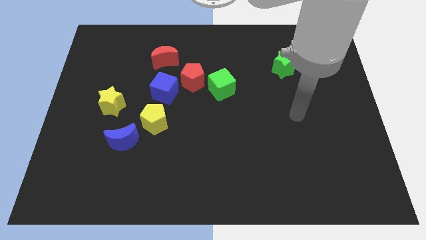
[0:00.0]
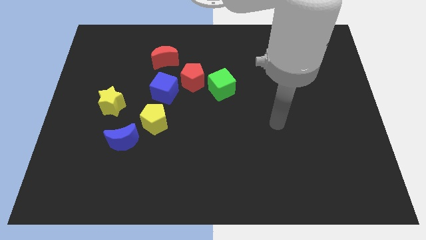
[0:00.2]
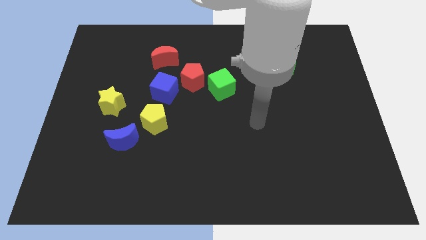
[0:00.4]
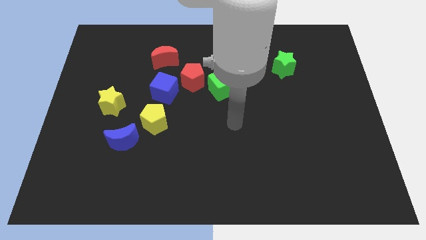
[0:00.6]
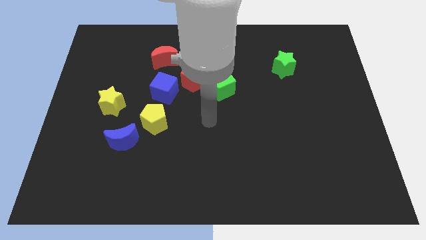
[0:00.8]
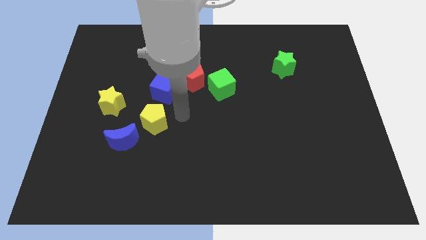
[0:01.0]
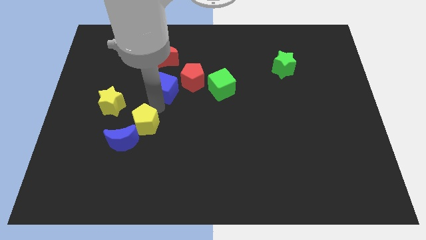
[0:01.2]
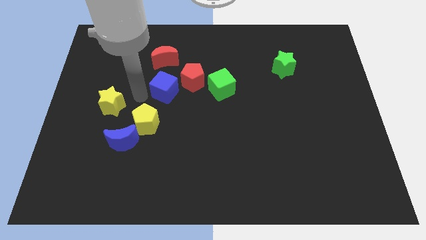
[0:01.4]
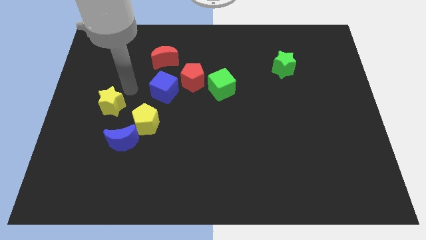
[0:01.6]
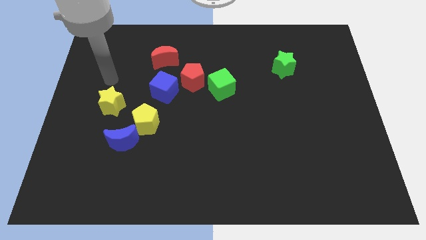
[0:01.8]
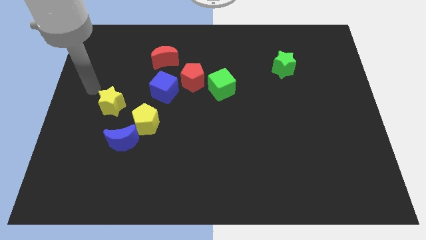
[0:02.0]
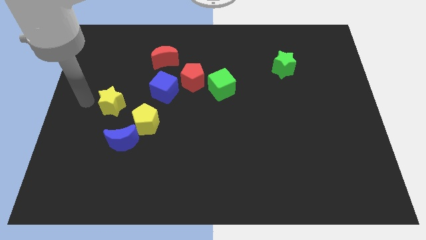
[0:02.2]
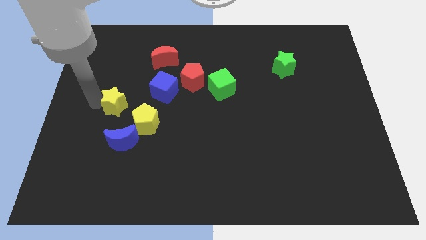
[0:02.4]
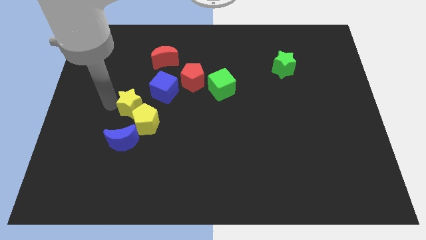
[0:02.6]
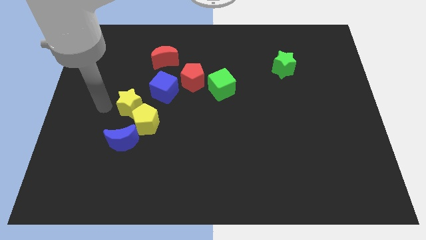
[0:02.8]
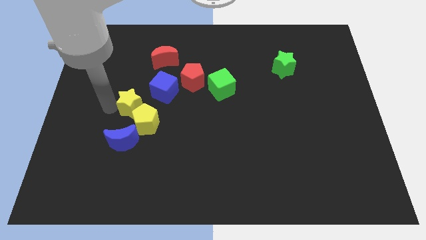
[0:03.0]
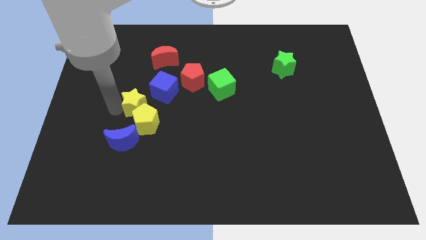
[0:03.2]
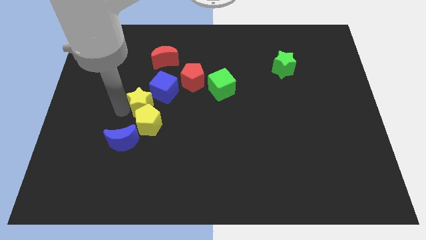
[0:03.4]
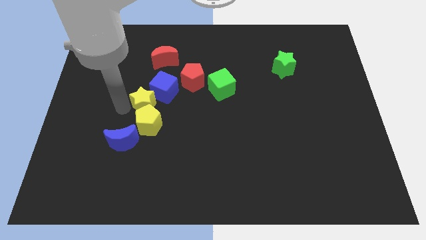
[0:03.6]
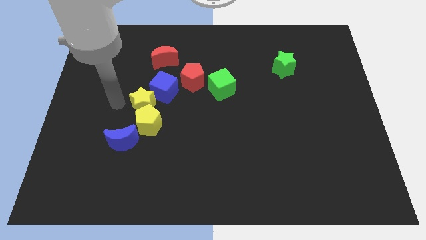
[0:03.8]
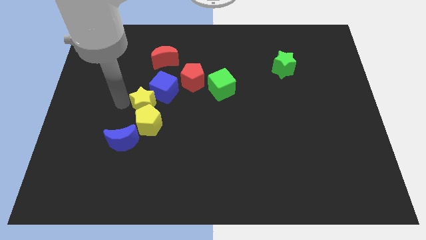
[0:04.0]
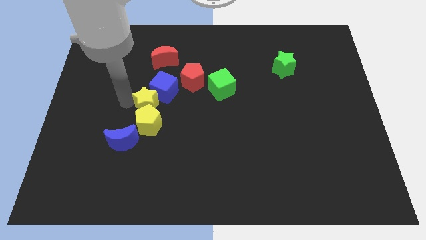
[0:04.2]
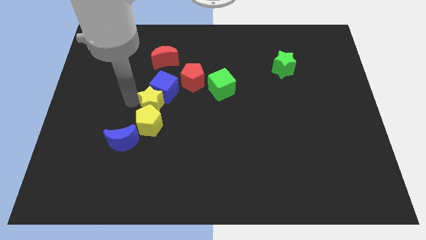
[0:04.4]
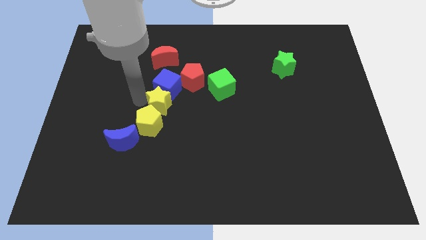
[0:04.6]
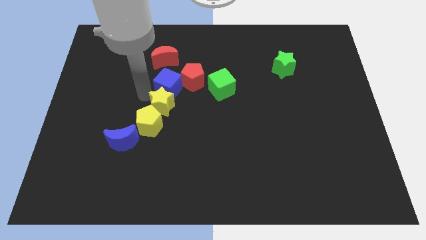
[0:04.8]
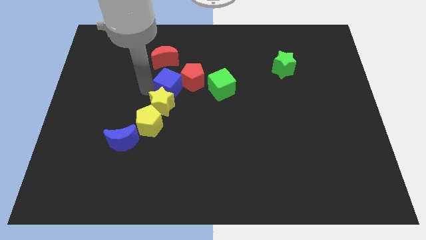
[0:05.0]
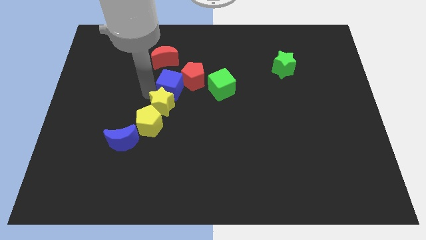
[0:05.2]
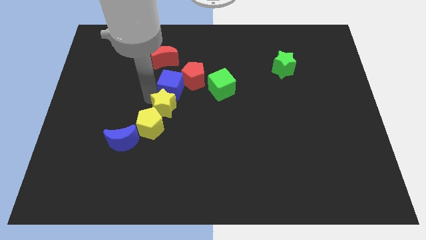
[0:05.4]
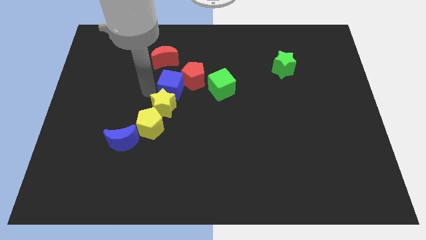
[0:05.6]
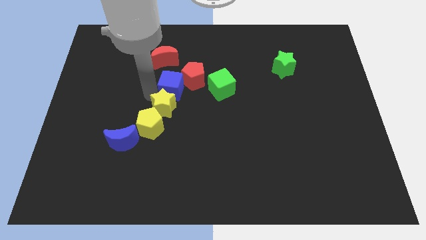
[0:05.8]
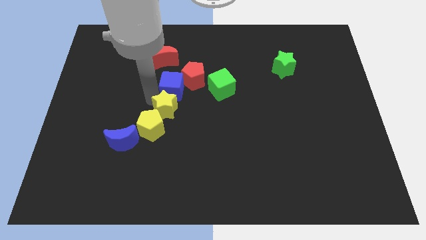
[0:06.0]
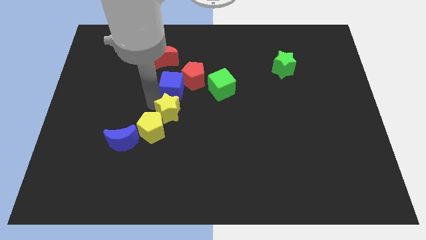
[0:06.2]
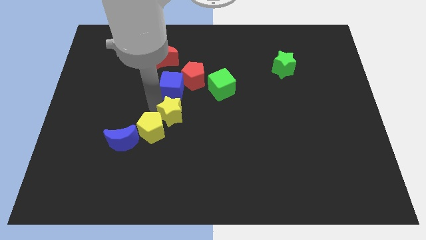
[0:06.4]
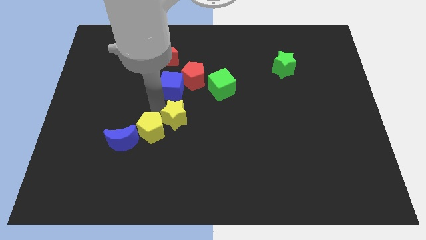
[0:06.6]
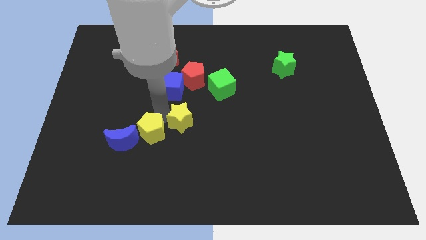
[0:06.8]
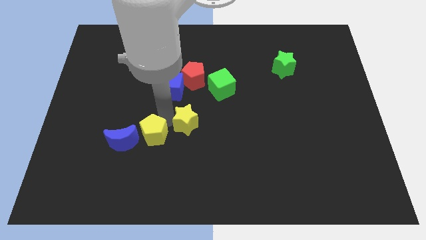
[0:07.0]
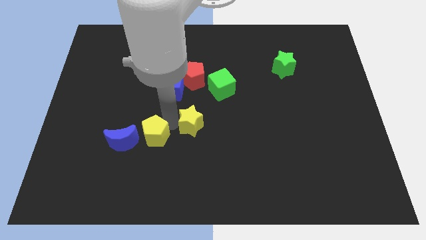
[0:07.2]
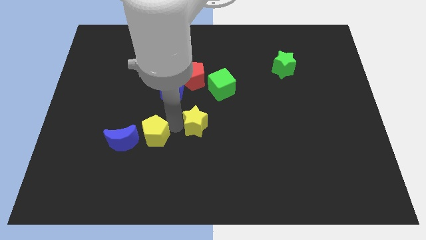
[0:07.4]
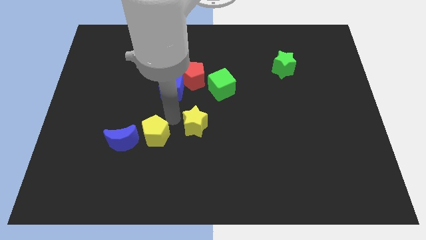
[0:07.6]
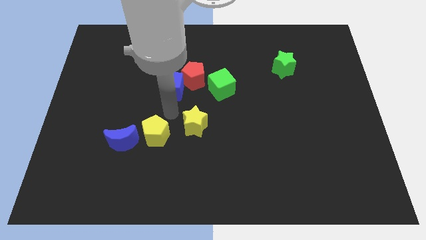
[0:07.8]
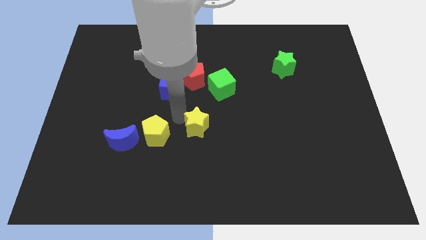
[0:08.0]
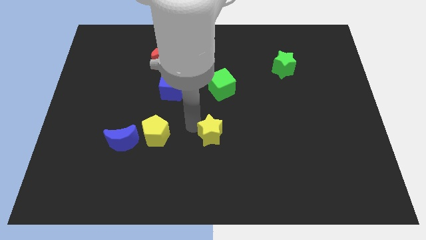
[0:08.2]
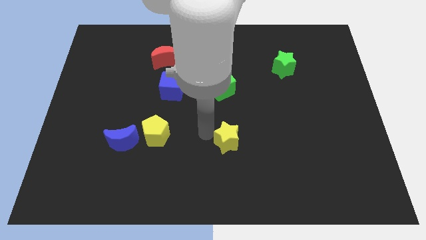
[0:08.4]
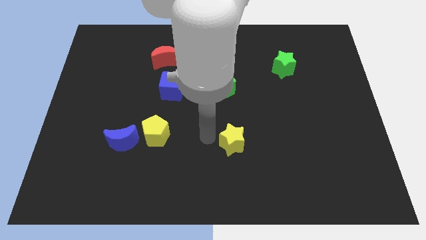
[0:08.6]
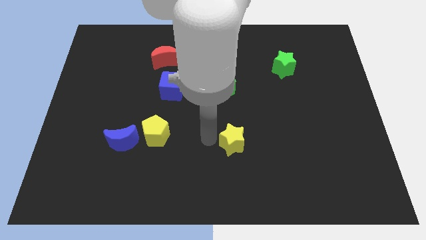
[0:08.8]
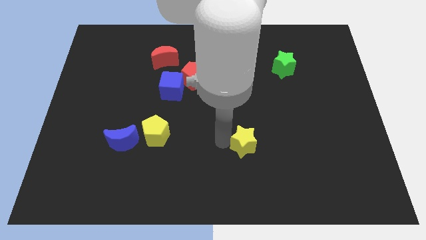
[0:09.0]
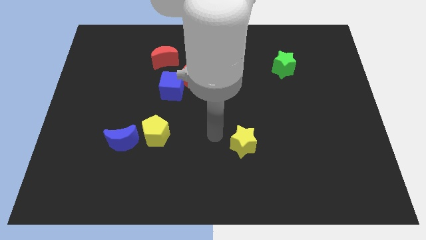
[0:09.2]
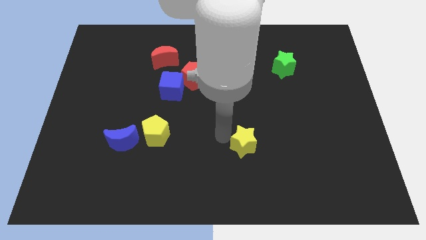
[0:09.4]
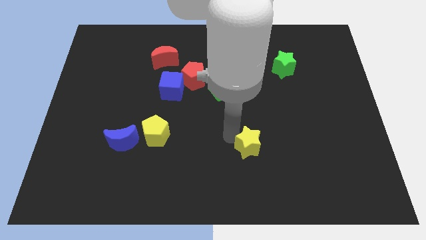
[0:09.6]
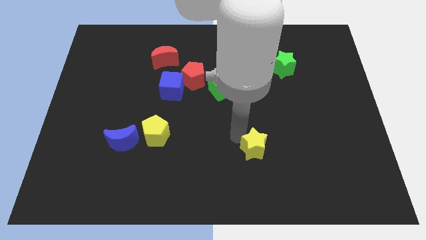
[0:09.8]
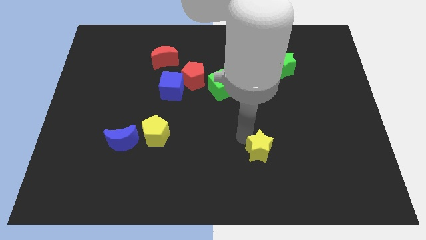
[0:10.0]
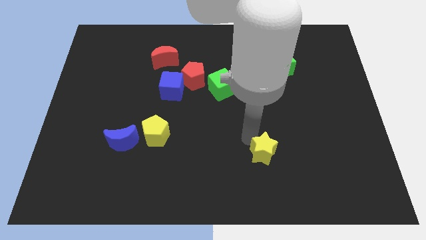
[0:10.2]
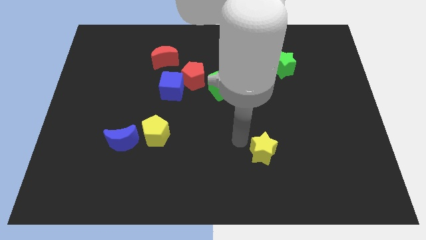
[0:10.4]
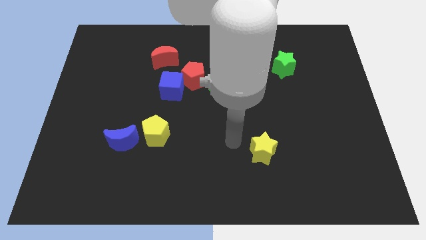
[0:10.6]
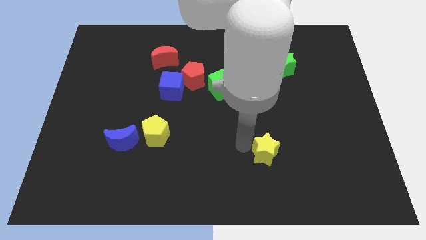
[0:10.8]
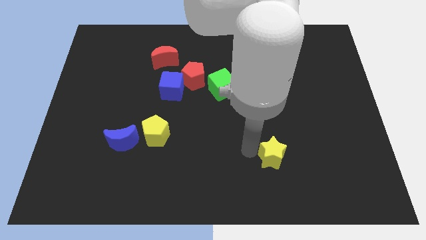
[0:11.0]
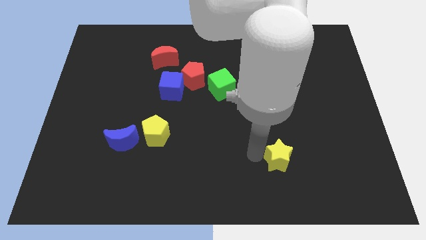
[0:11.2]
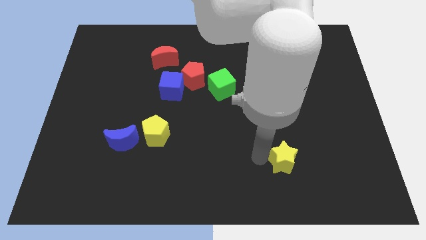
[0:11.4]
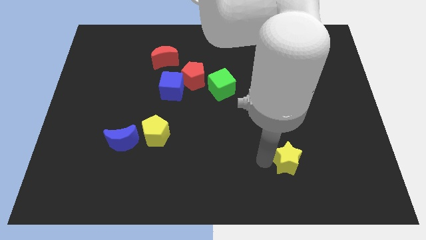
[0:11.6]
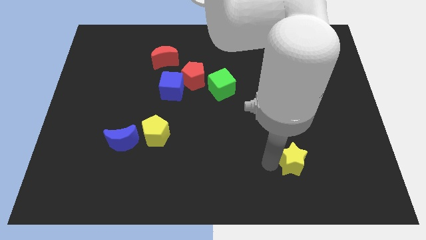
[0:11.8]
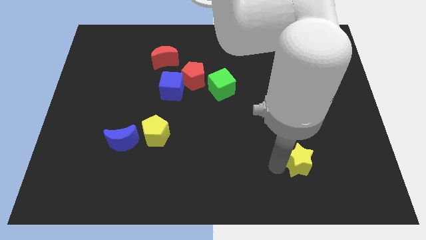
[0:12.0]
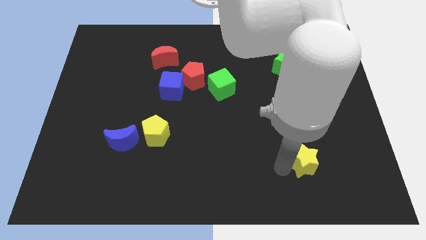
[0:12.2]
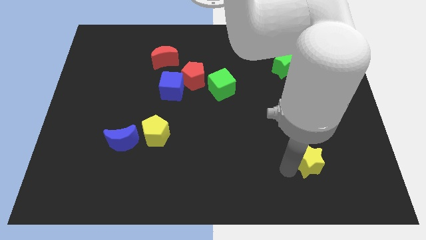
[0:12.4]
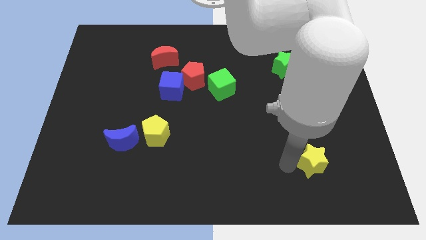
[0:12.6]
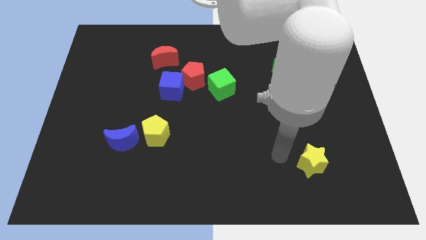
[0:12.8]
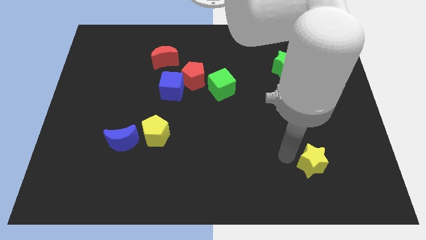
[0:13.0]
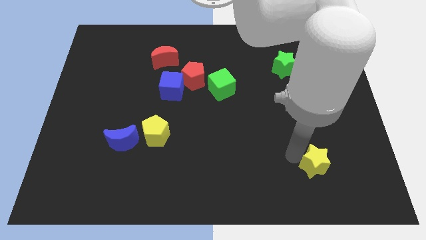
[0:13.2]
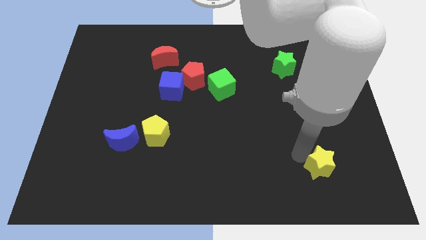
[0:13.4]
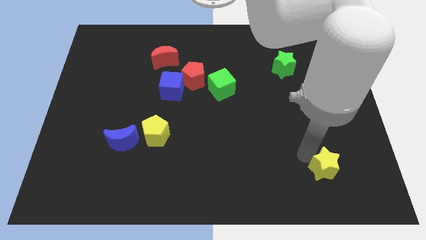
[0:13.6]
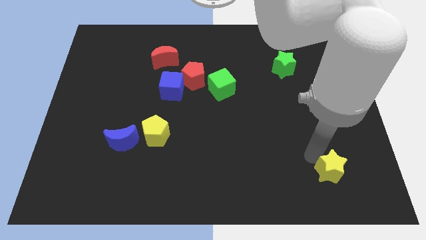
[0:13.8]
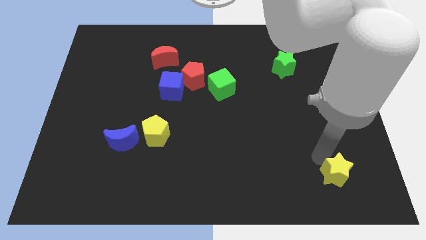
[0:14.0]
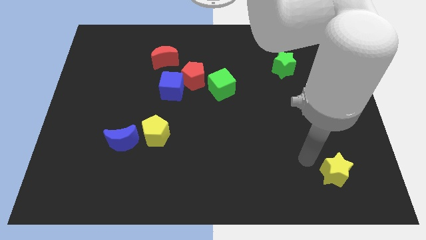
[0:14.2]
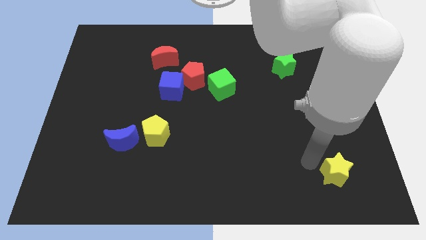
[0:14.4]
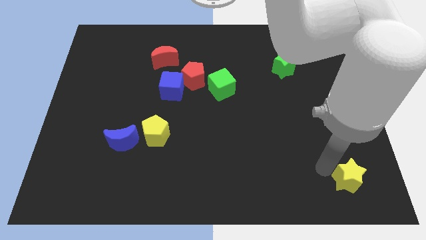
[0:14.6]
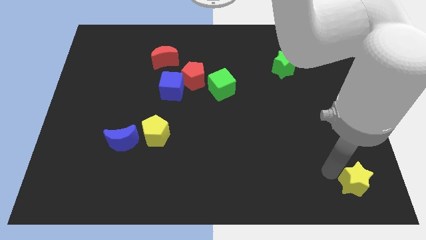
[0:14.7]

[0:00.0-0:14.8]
push the yellow star to the bottom right
